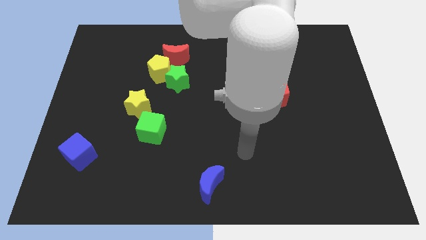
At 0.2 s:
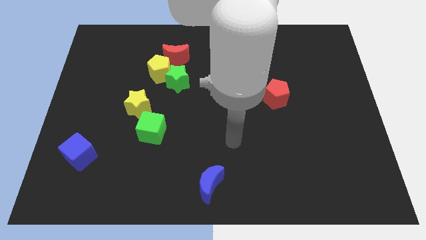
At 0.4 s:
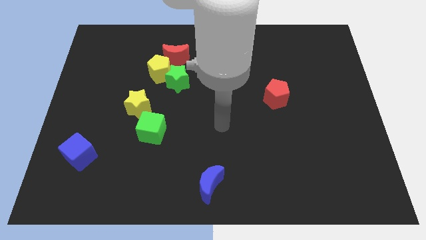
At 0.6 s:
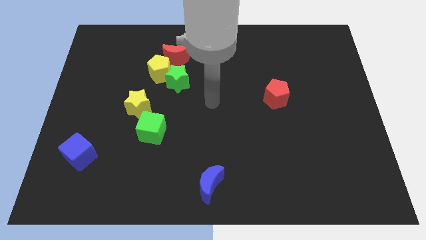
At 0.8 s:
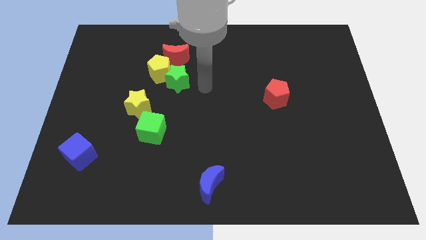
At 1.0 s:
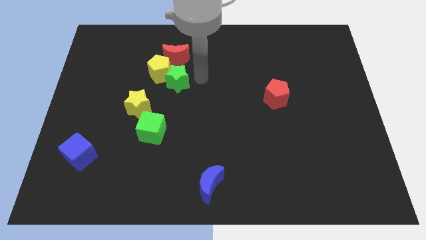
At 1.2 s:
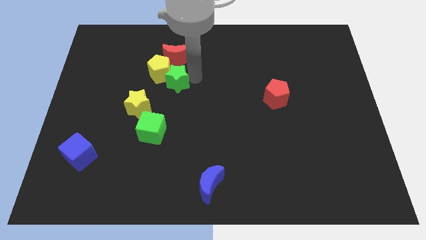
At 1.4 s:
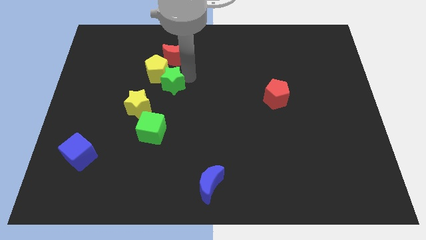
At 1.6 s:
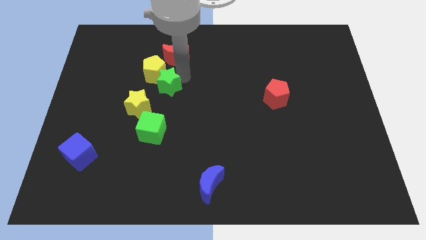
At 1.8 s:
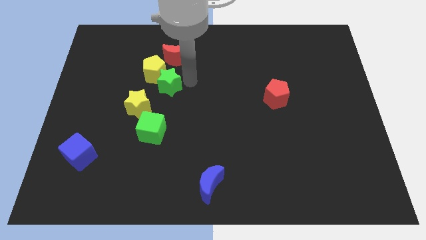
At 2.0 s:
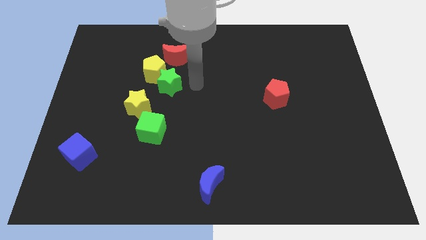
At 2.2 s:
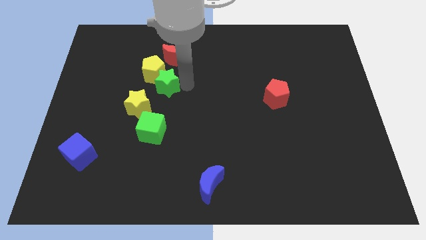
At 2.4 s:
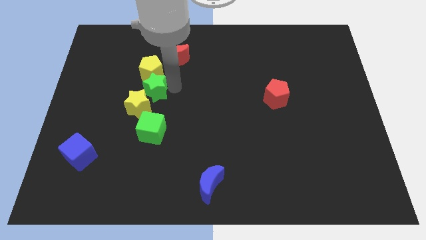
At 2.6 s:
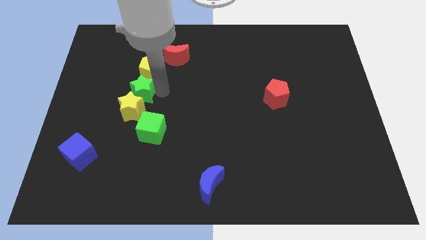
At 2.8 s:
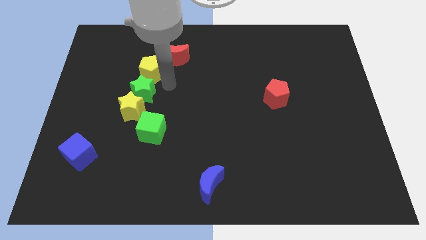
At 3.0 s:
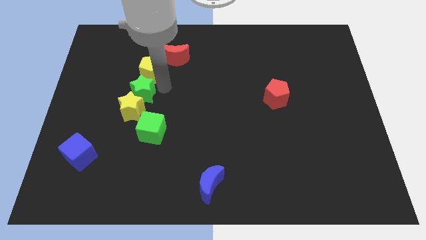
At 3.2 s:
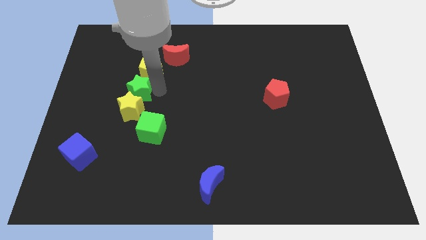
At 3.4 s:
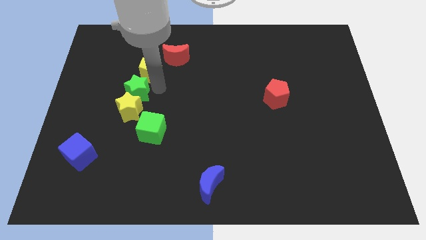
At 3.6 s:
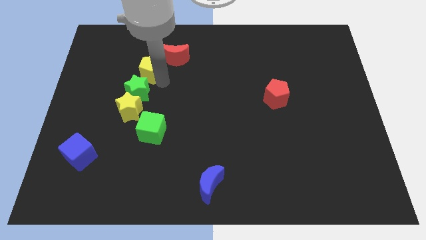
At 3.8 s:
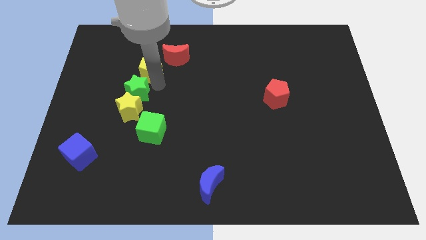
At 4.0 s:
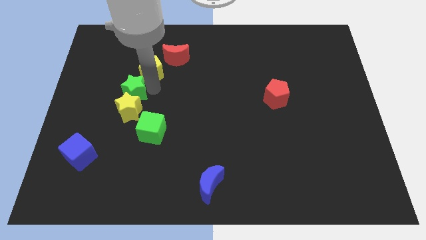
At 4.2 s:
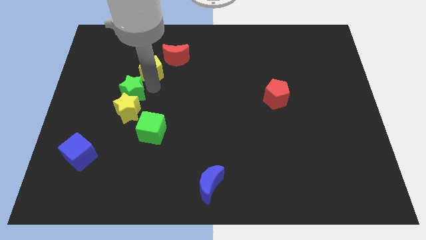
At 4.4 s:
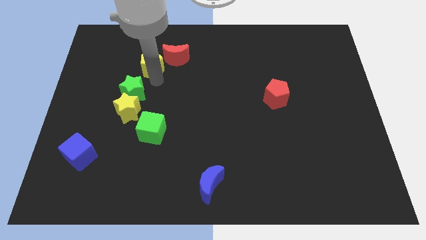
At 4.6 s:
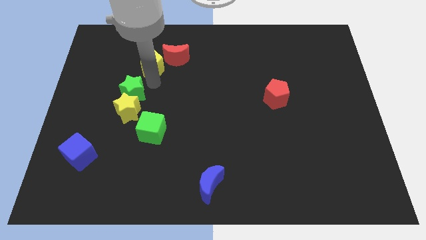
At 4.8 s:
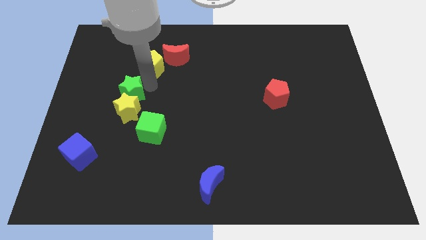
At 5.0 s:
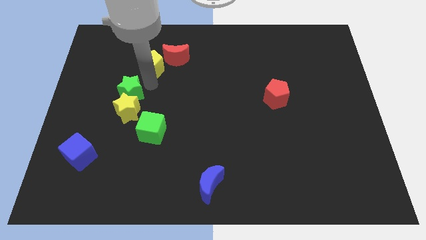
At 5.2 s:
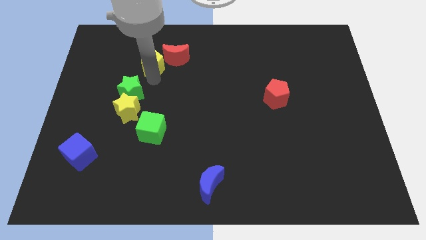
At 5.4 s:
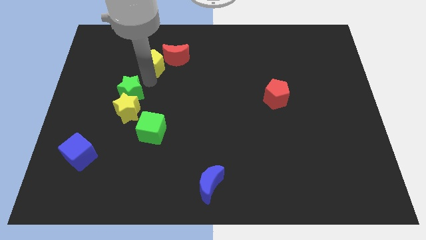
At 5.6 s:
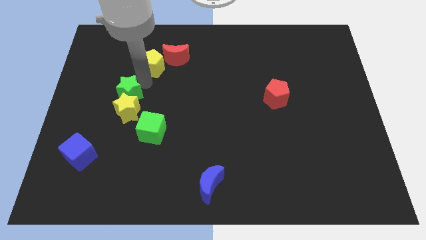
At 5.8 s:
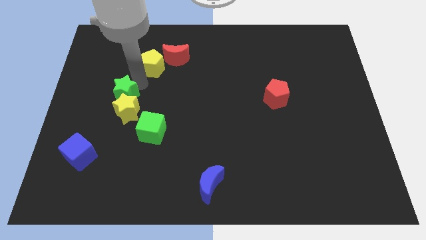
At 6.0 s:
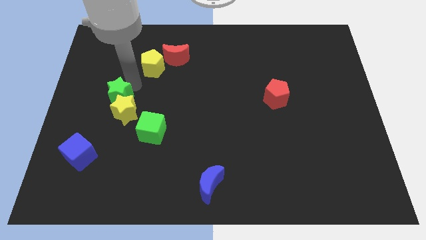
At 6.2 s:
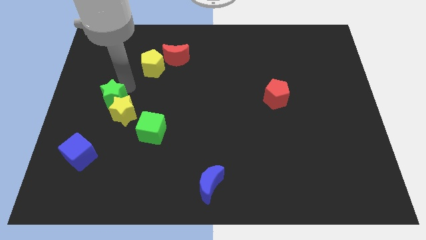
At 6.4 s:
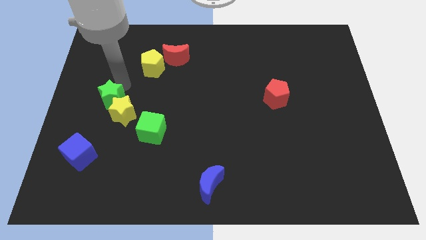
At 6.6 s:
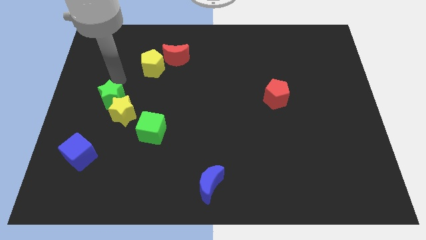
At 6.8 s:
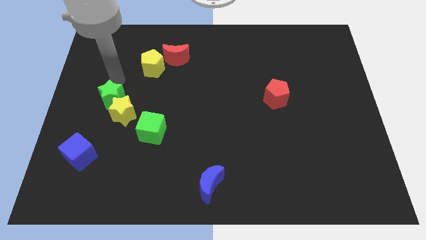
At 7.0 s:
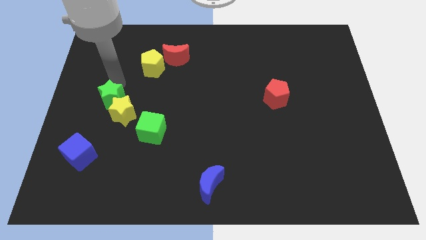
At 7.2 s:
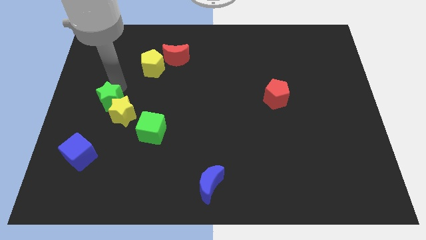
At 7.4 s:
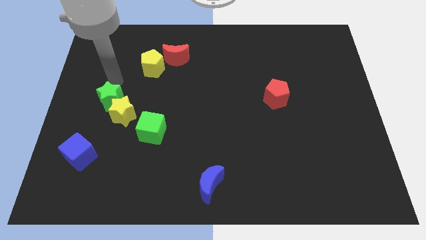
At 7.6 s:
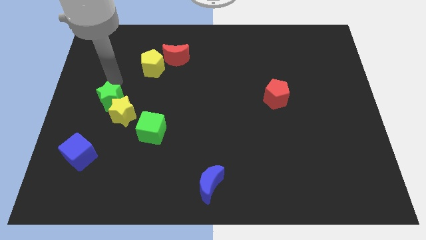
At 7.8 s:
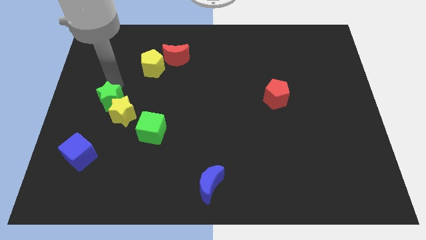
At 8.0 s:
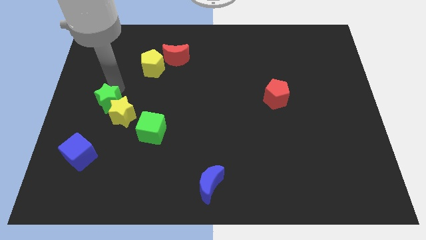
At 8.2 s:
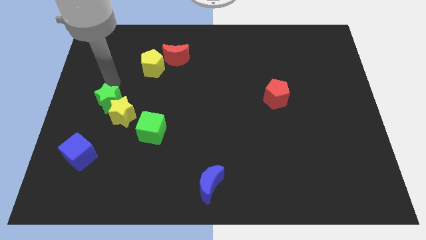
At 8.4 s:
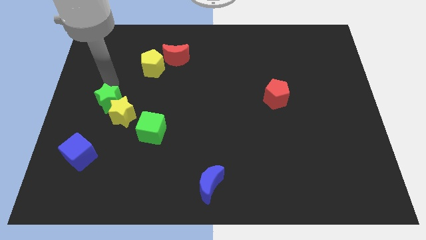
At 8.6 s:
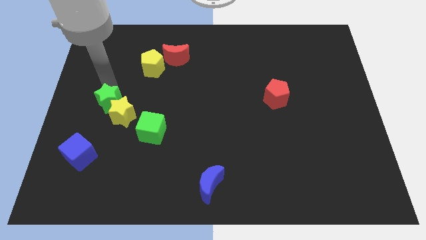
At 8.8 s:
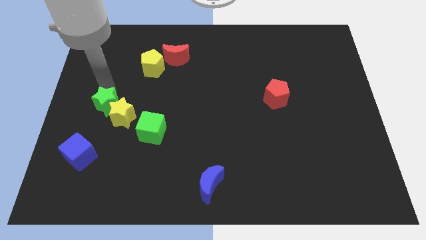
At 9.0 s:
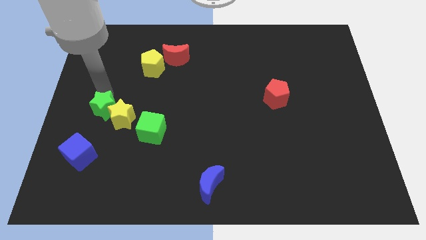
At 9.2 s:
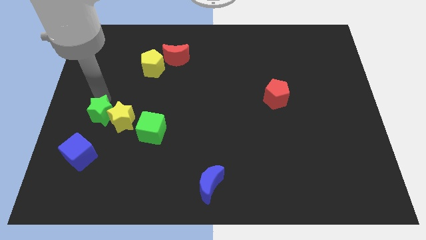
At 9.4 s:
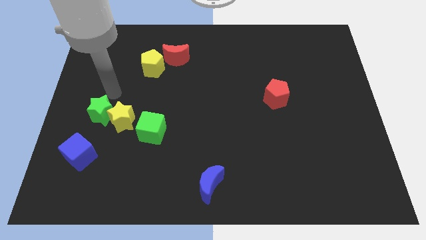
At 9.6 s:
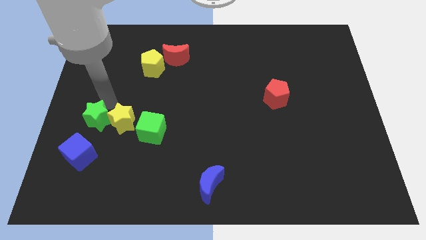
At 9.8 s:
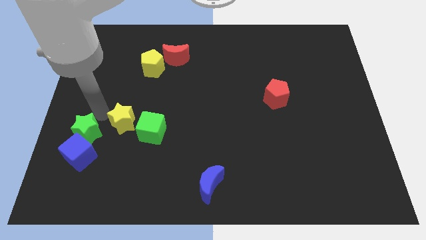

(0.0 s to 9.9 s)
slide the green star next to the blue cube

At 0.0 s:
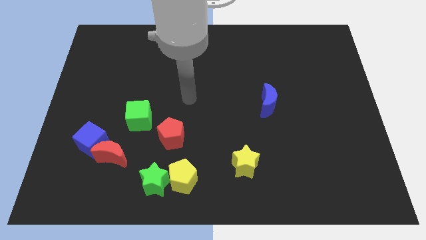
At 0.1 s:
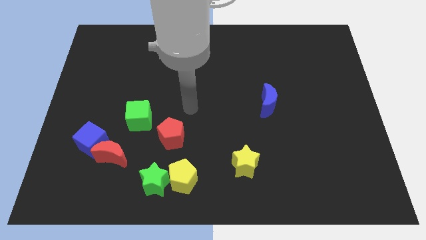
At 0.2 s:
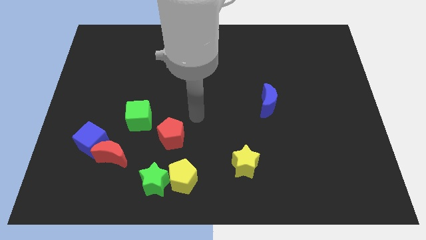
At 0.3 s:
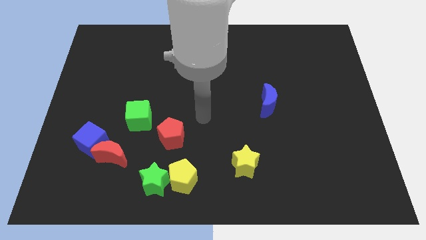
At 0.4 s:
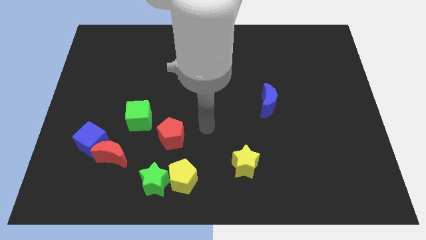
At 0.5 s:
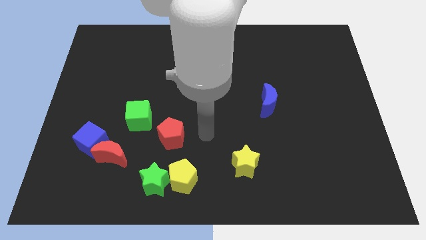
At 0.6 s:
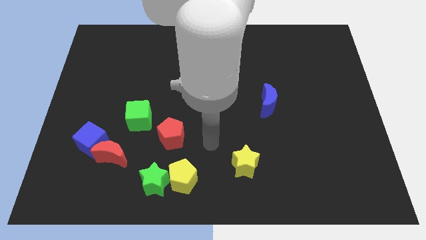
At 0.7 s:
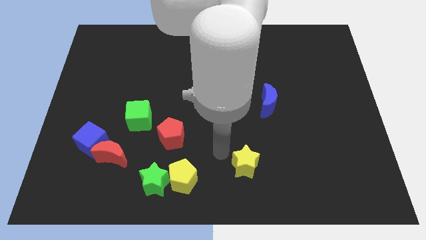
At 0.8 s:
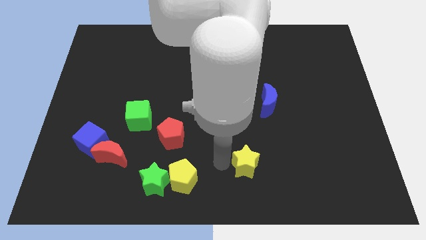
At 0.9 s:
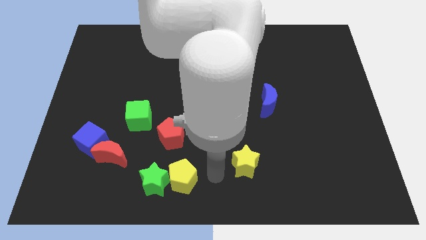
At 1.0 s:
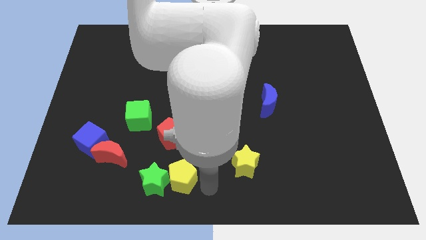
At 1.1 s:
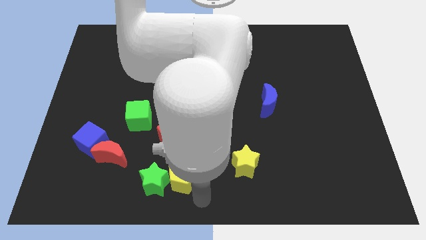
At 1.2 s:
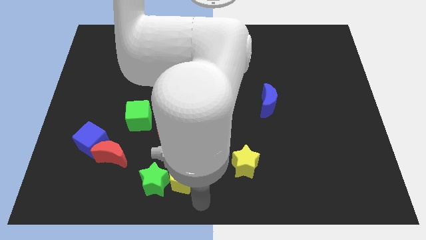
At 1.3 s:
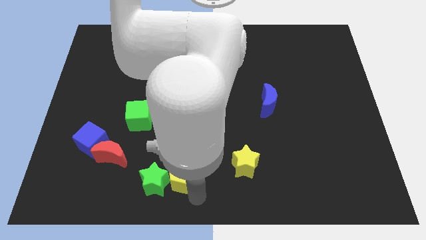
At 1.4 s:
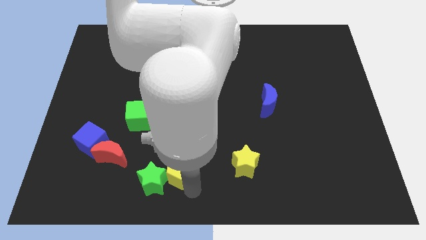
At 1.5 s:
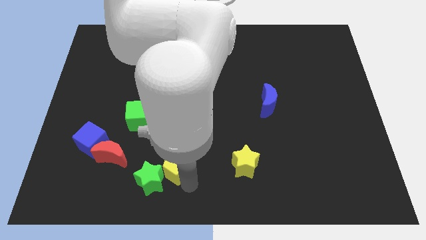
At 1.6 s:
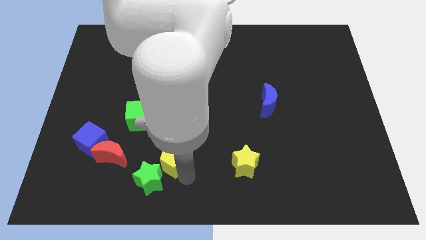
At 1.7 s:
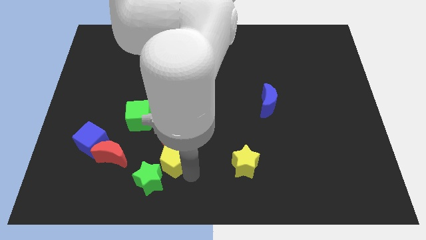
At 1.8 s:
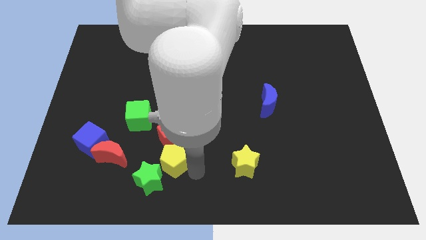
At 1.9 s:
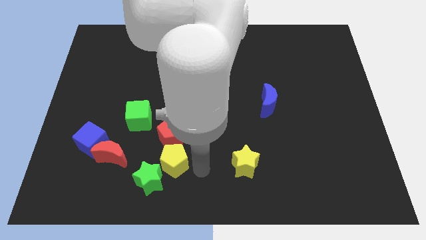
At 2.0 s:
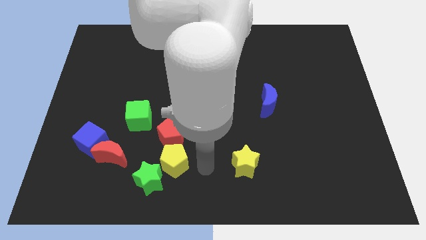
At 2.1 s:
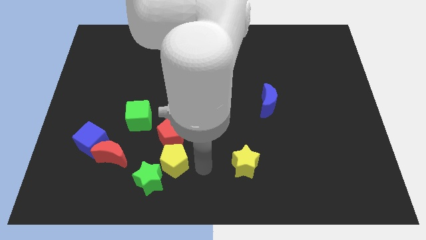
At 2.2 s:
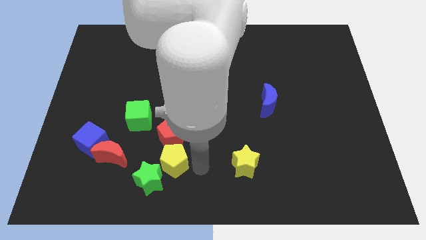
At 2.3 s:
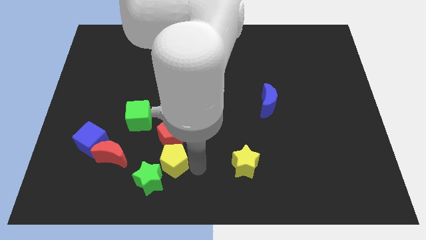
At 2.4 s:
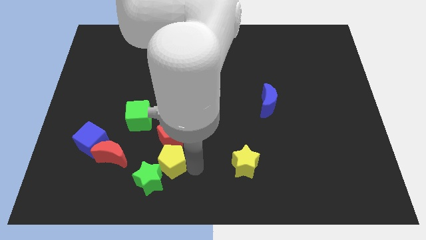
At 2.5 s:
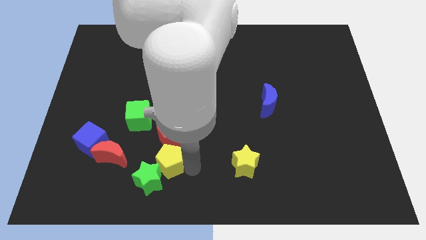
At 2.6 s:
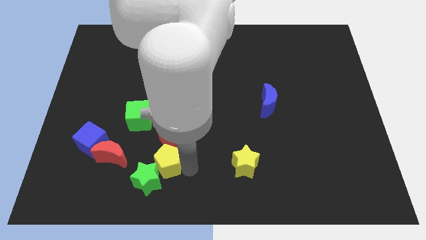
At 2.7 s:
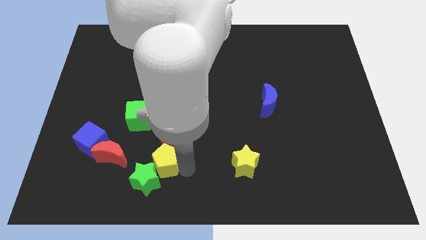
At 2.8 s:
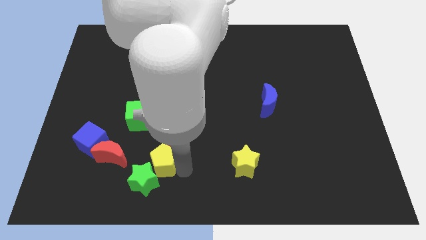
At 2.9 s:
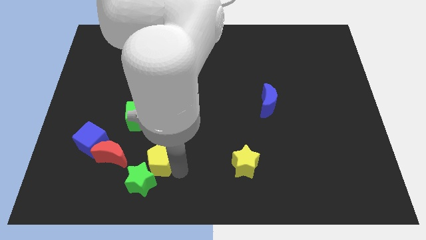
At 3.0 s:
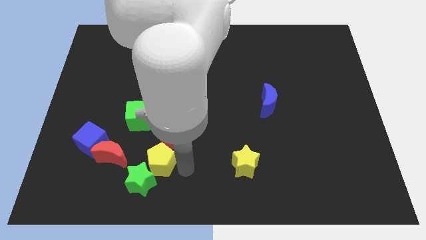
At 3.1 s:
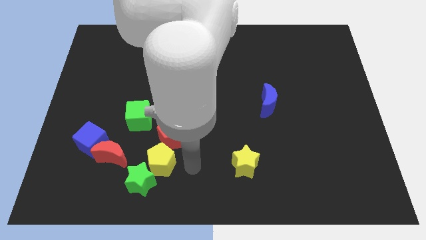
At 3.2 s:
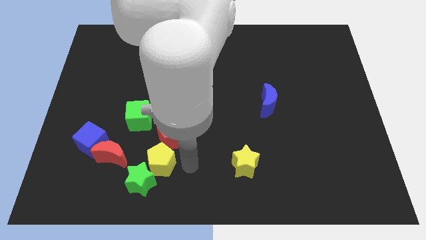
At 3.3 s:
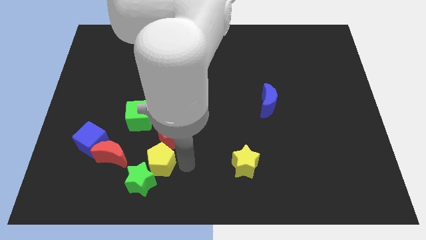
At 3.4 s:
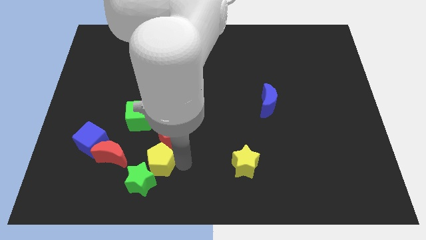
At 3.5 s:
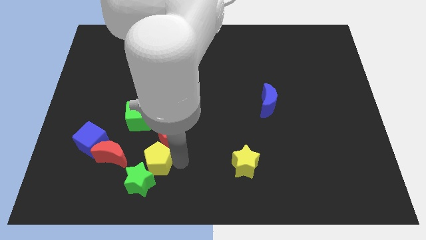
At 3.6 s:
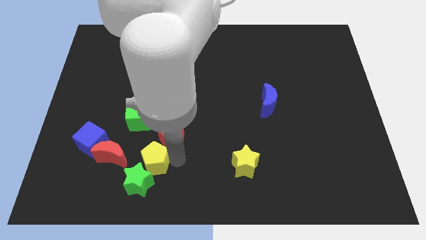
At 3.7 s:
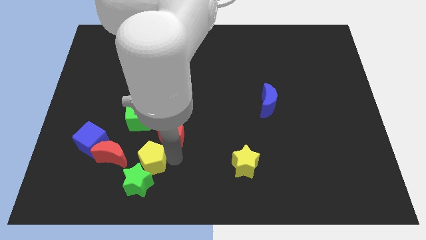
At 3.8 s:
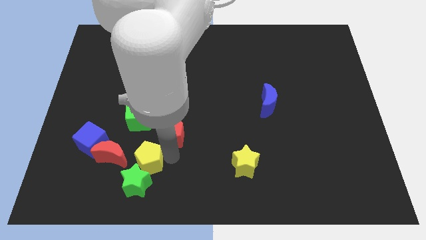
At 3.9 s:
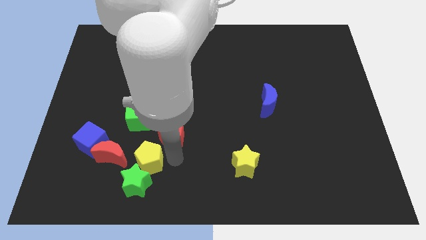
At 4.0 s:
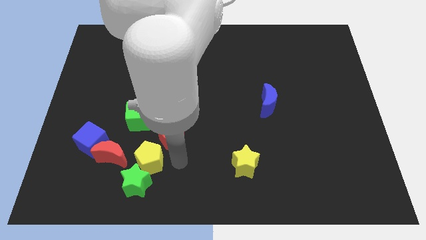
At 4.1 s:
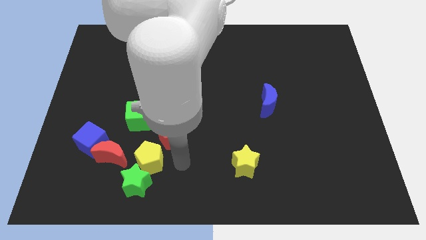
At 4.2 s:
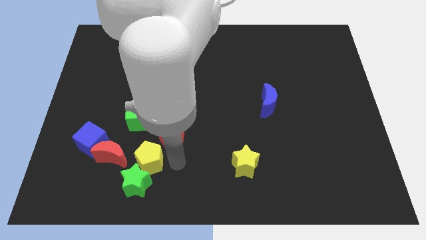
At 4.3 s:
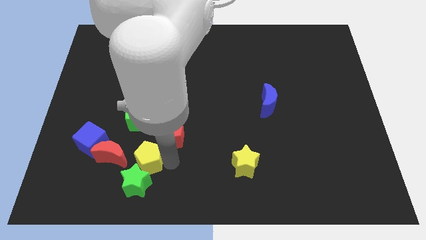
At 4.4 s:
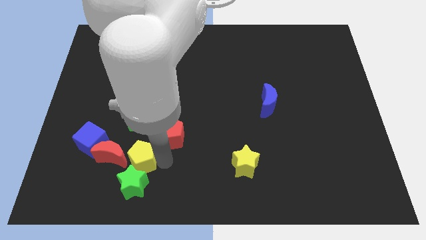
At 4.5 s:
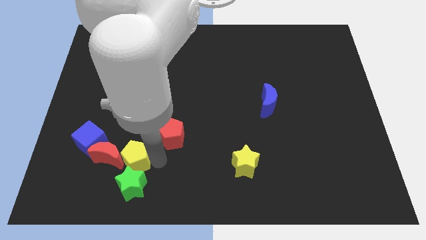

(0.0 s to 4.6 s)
push the yellow pentagon next to the red moon
